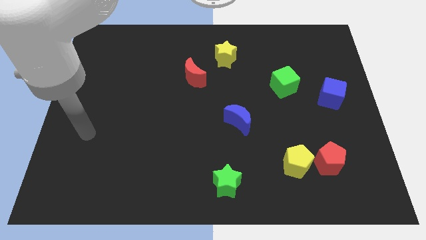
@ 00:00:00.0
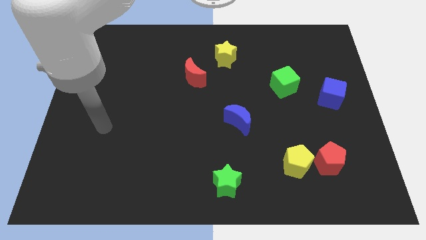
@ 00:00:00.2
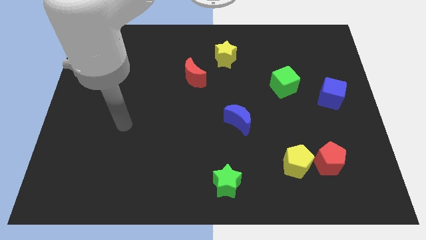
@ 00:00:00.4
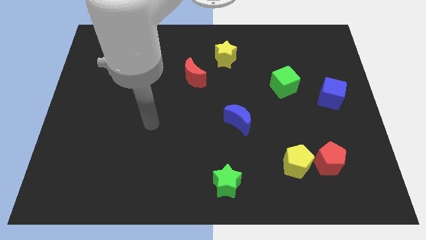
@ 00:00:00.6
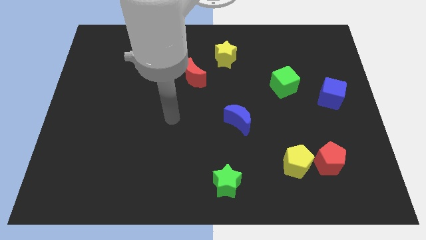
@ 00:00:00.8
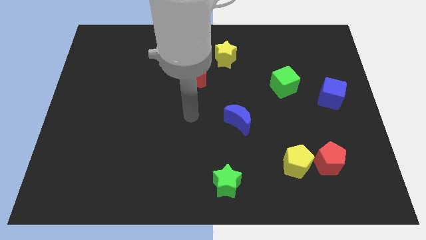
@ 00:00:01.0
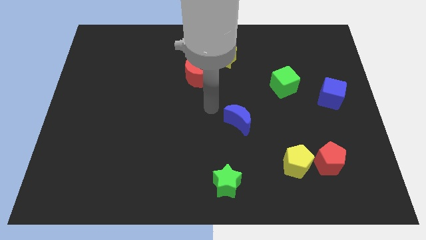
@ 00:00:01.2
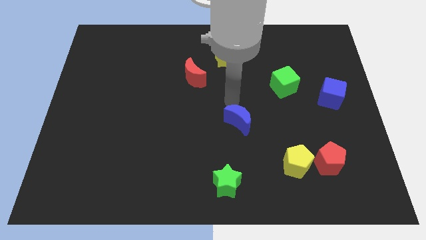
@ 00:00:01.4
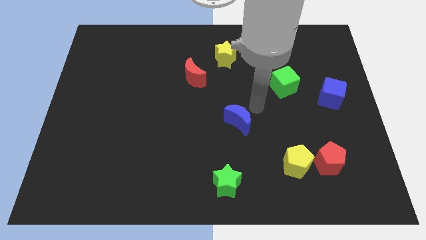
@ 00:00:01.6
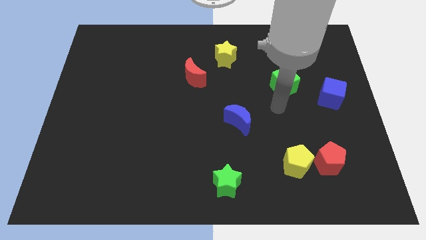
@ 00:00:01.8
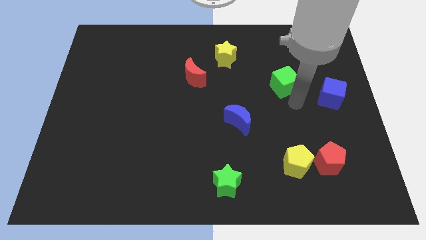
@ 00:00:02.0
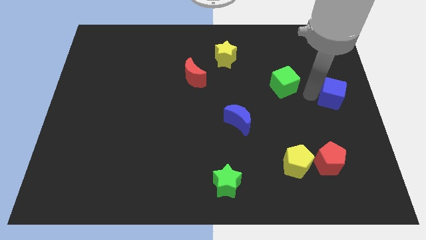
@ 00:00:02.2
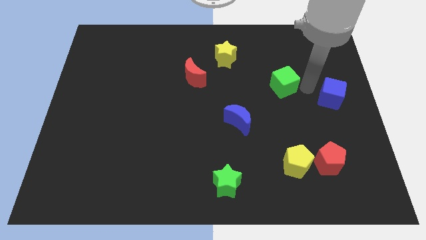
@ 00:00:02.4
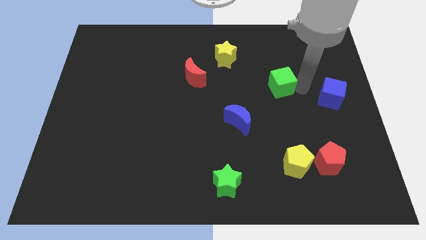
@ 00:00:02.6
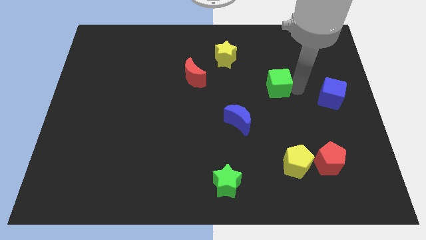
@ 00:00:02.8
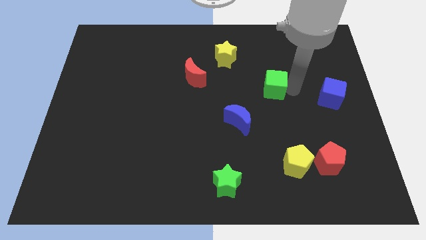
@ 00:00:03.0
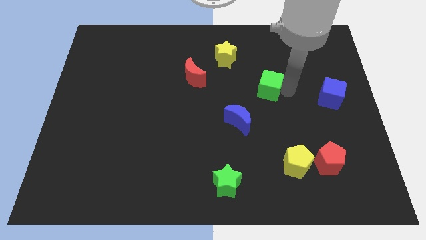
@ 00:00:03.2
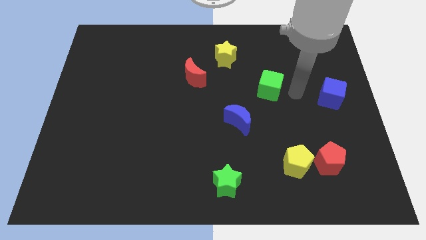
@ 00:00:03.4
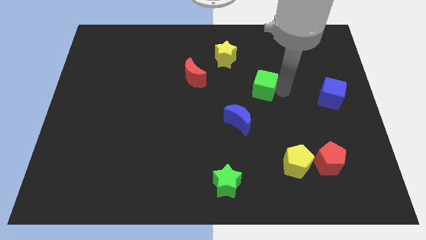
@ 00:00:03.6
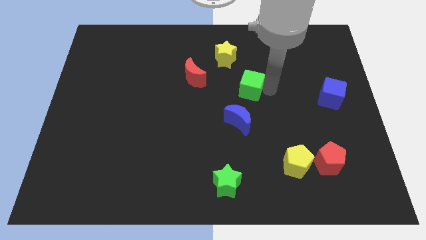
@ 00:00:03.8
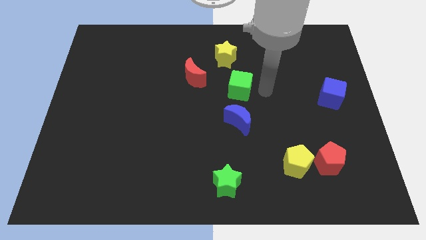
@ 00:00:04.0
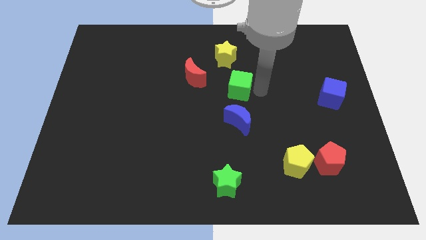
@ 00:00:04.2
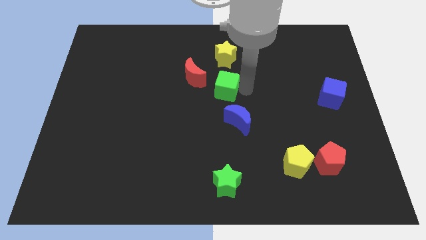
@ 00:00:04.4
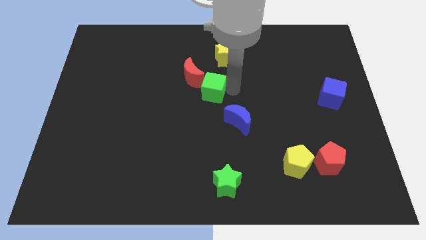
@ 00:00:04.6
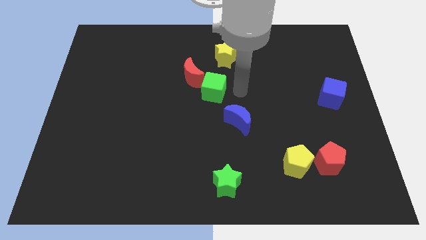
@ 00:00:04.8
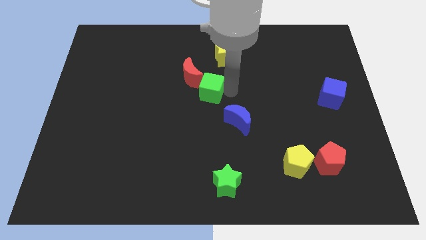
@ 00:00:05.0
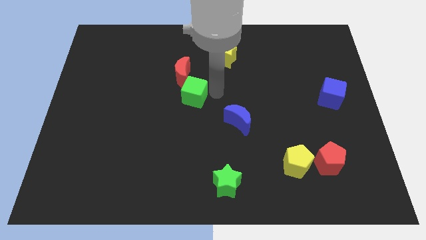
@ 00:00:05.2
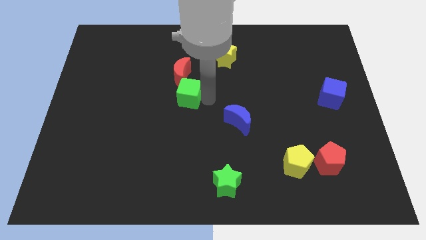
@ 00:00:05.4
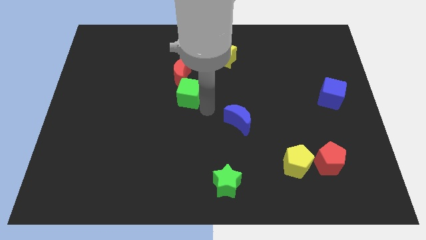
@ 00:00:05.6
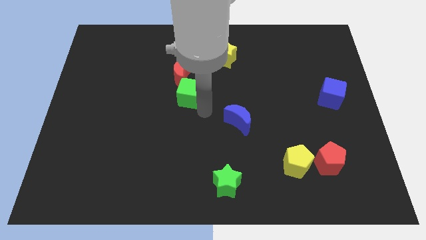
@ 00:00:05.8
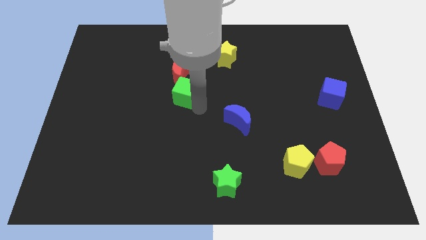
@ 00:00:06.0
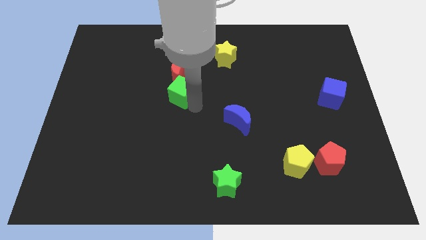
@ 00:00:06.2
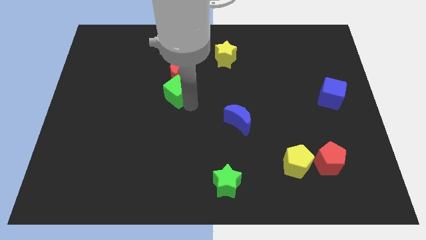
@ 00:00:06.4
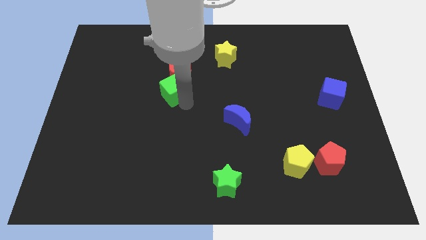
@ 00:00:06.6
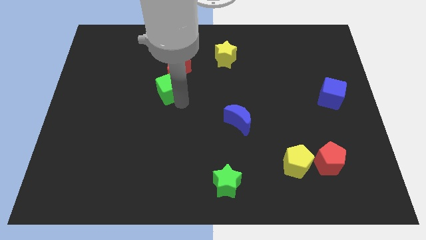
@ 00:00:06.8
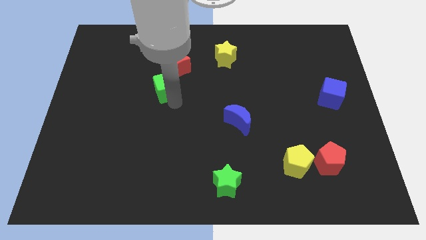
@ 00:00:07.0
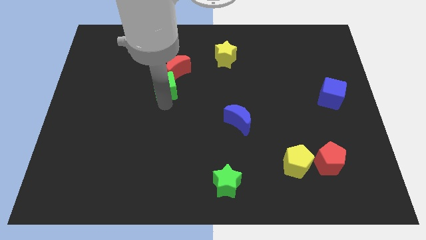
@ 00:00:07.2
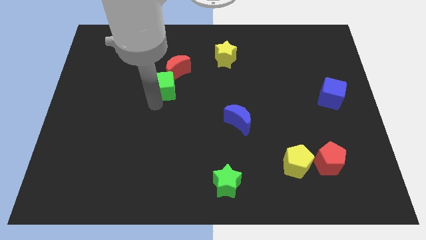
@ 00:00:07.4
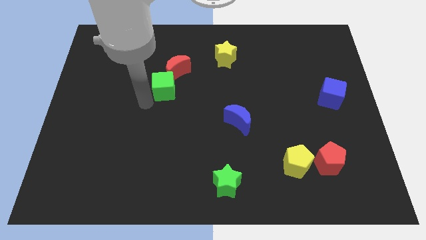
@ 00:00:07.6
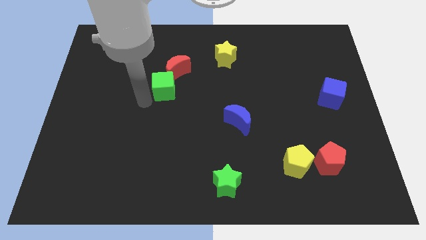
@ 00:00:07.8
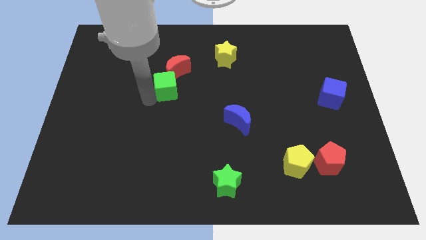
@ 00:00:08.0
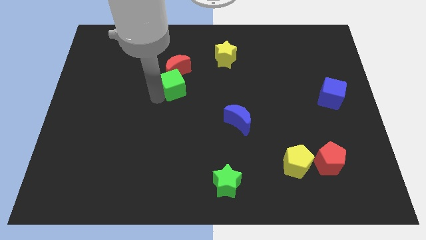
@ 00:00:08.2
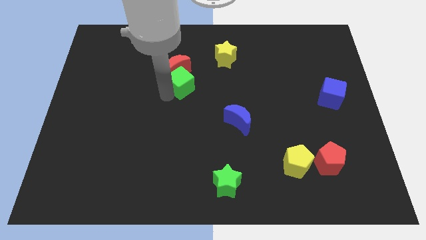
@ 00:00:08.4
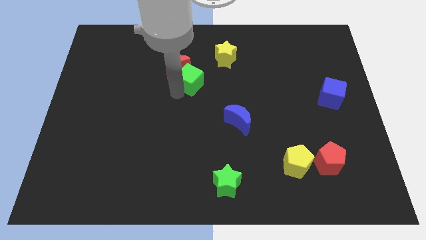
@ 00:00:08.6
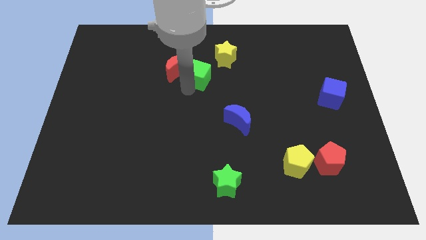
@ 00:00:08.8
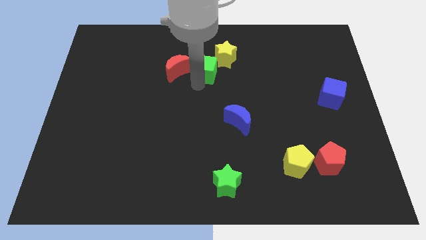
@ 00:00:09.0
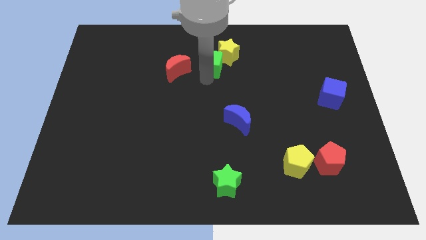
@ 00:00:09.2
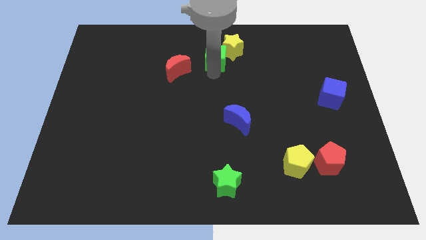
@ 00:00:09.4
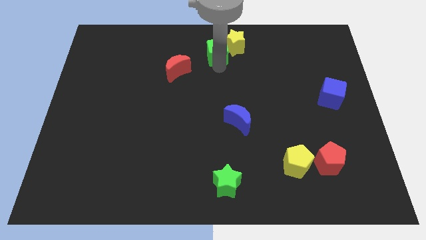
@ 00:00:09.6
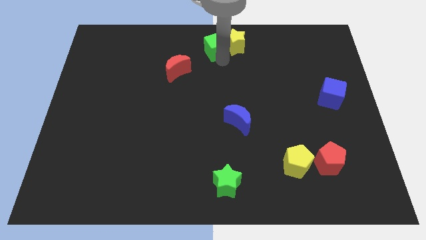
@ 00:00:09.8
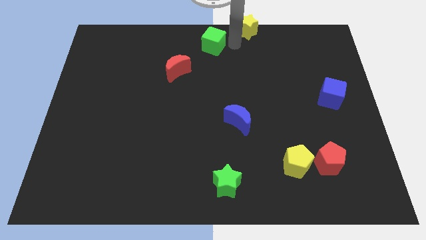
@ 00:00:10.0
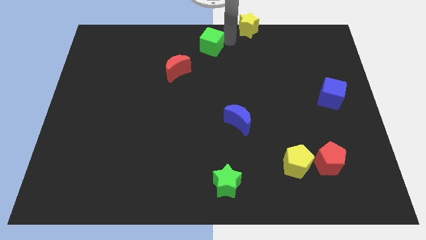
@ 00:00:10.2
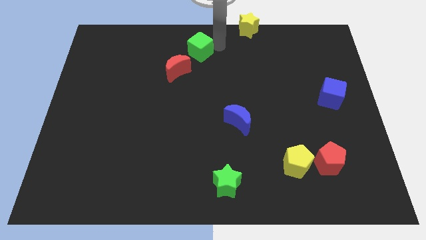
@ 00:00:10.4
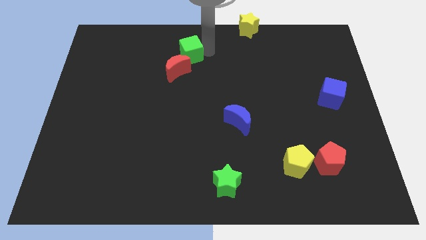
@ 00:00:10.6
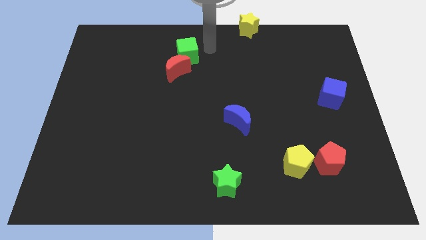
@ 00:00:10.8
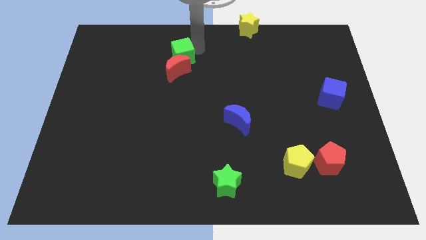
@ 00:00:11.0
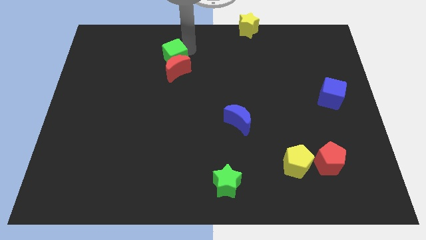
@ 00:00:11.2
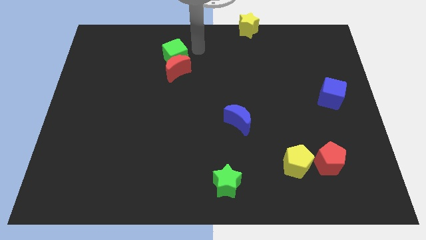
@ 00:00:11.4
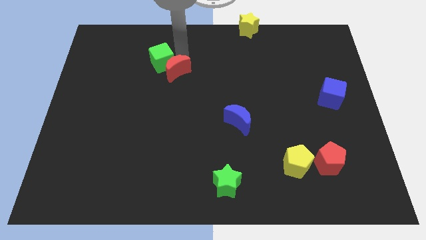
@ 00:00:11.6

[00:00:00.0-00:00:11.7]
slide the green cube to the left of the red moon

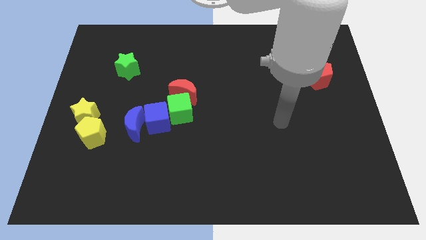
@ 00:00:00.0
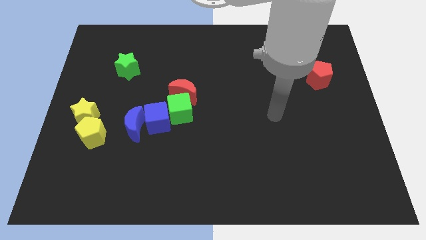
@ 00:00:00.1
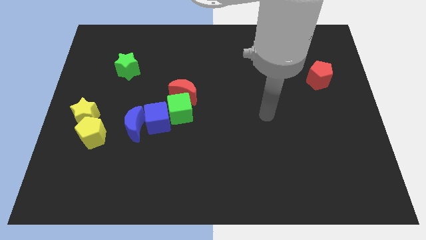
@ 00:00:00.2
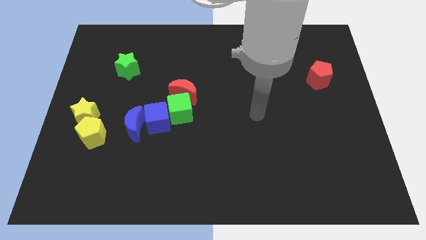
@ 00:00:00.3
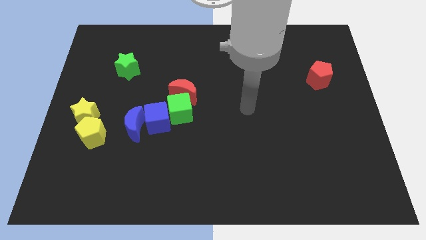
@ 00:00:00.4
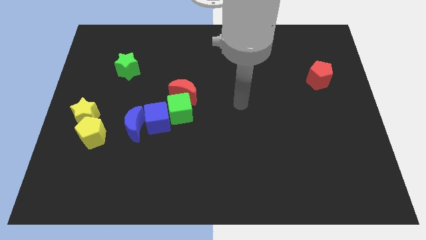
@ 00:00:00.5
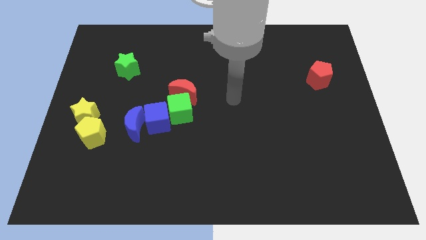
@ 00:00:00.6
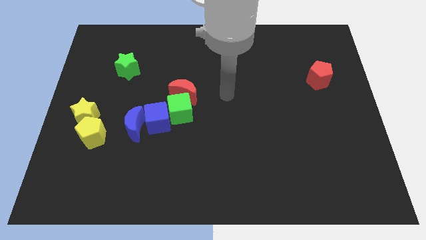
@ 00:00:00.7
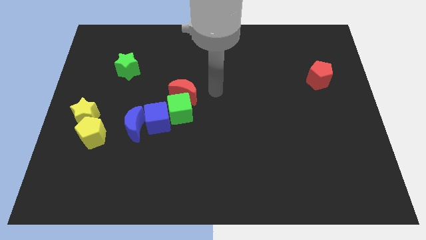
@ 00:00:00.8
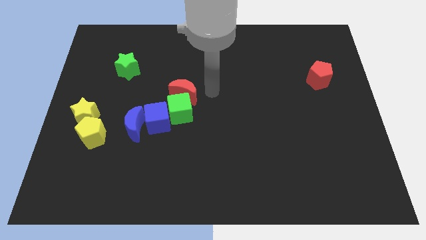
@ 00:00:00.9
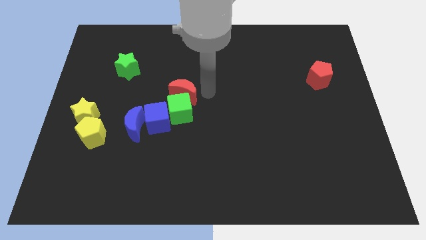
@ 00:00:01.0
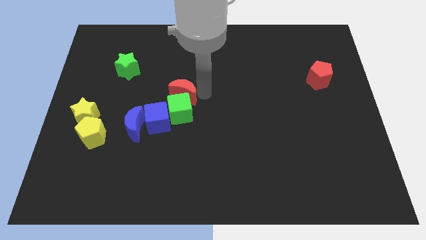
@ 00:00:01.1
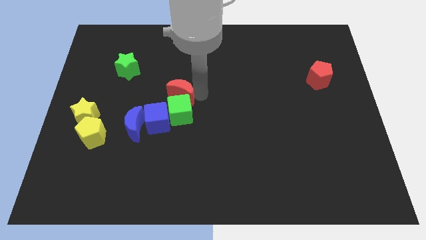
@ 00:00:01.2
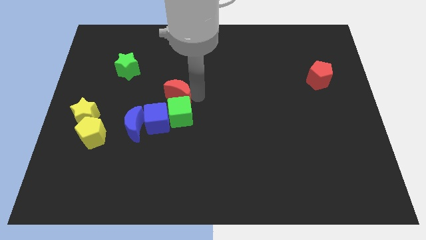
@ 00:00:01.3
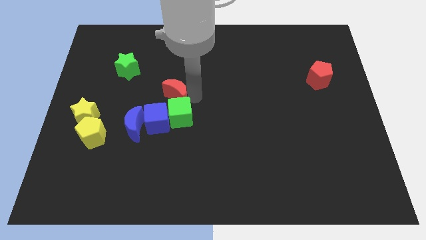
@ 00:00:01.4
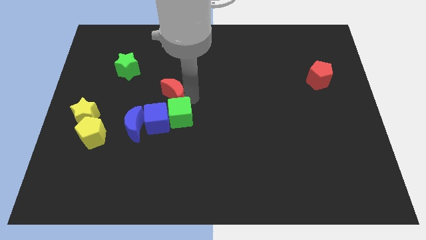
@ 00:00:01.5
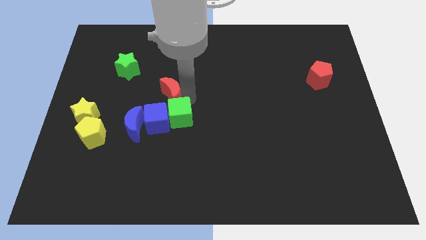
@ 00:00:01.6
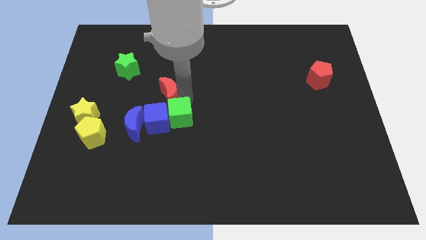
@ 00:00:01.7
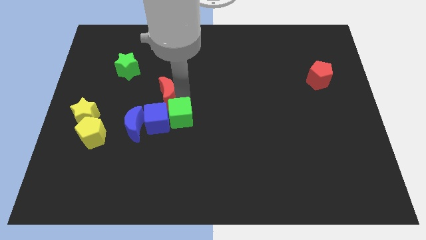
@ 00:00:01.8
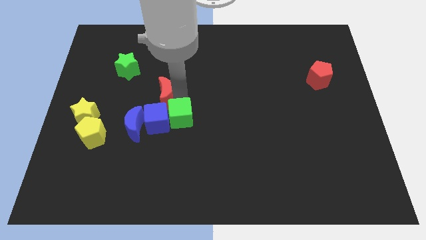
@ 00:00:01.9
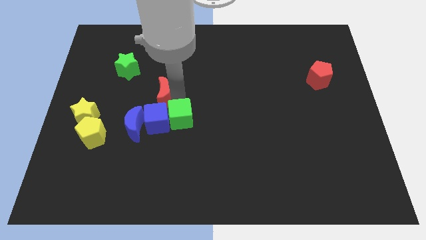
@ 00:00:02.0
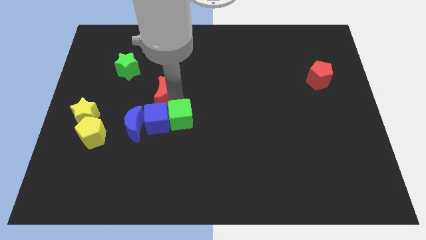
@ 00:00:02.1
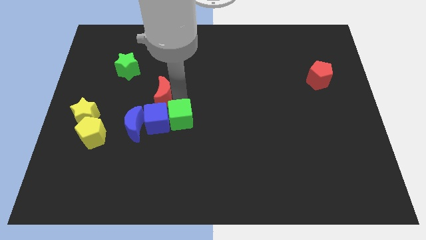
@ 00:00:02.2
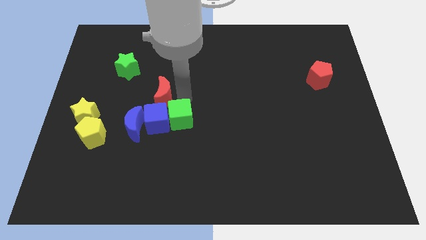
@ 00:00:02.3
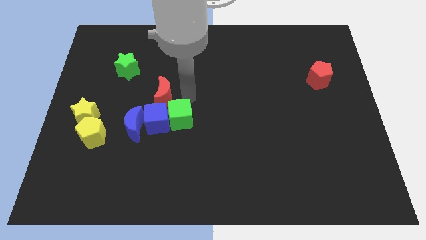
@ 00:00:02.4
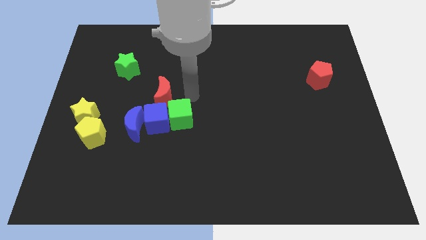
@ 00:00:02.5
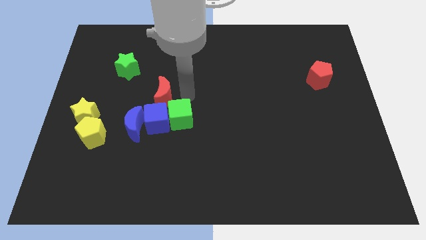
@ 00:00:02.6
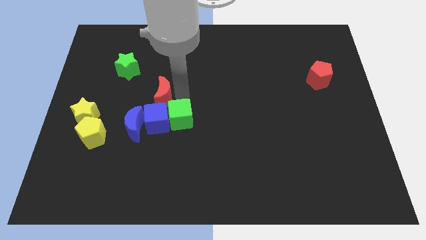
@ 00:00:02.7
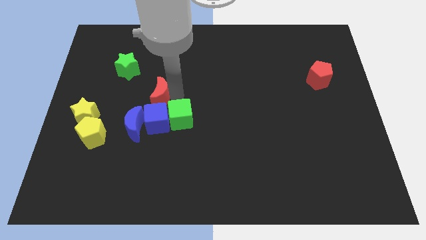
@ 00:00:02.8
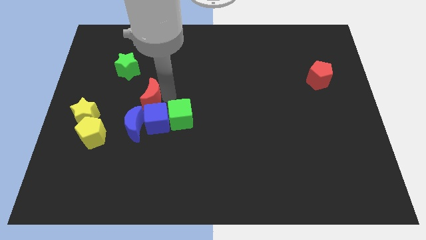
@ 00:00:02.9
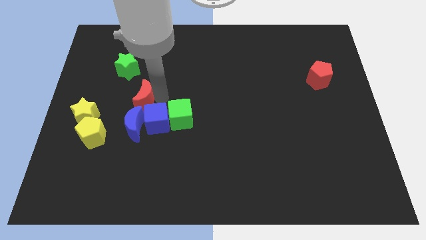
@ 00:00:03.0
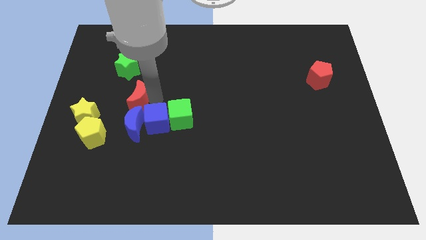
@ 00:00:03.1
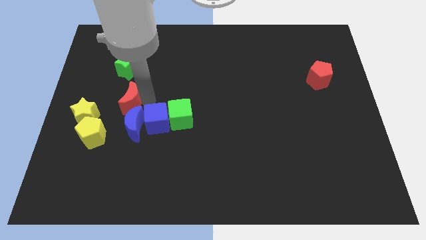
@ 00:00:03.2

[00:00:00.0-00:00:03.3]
move the red moon diagonally up and to the right of the yellow star
